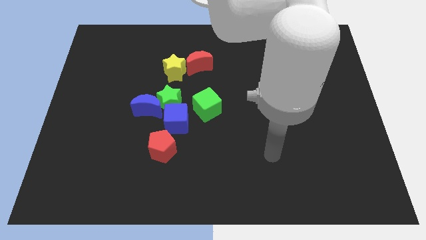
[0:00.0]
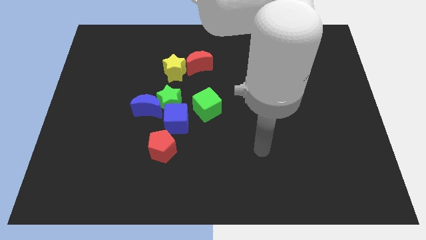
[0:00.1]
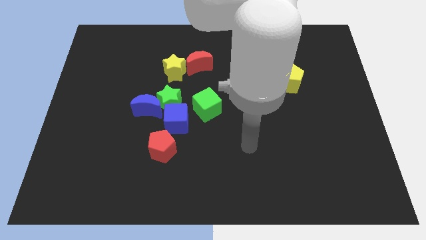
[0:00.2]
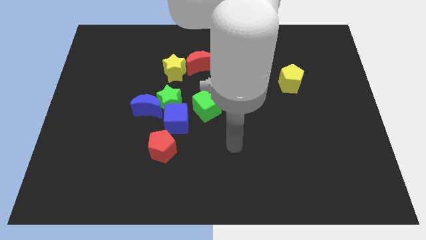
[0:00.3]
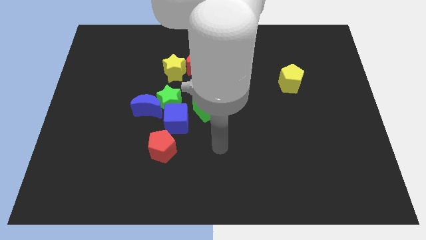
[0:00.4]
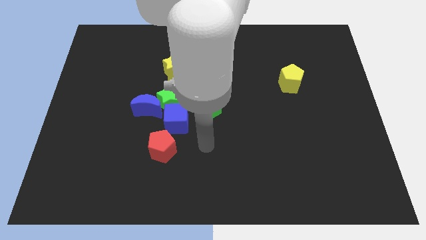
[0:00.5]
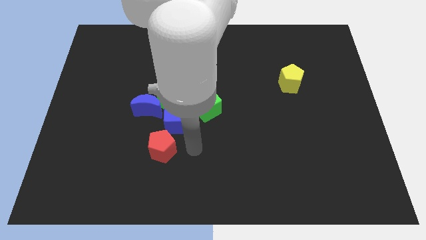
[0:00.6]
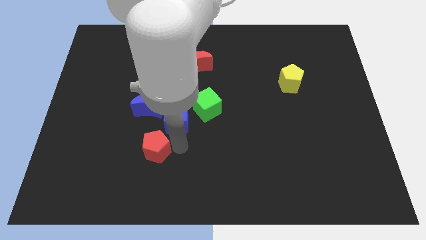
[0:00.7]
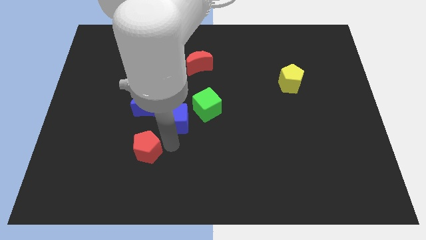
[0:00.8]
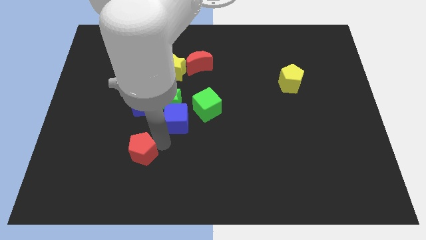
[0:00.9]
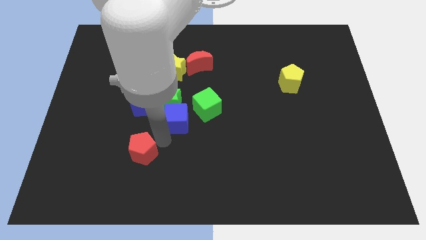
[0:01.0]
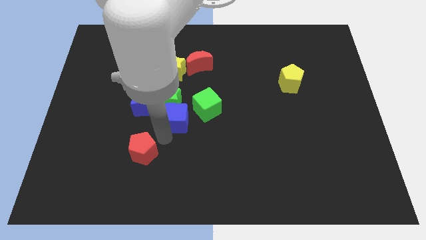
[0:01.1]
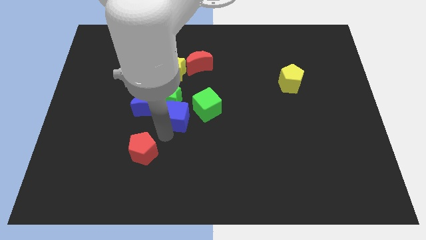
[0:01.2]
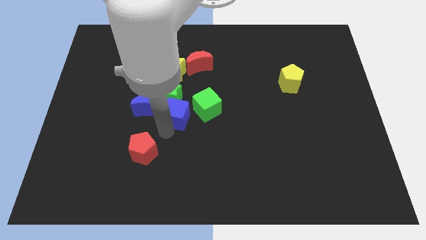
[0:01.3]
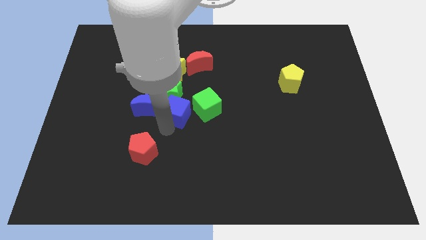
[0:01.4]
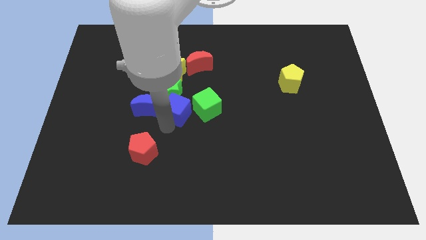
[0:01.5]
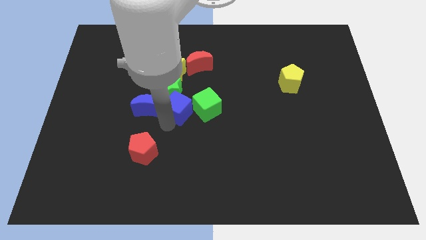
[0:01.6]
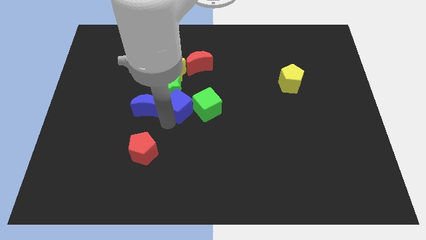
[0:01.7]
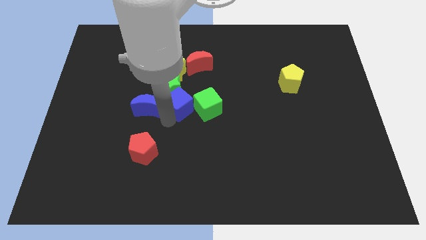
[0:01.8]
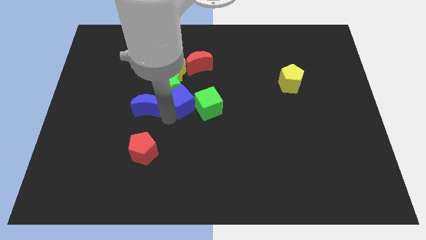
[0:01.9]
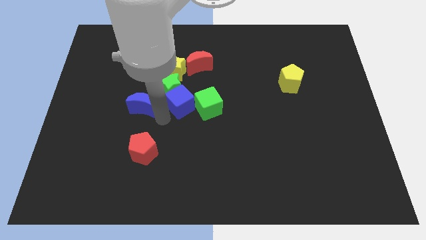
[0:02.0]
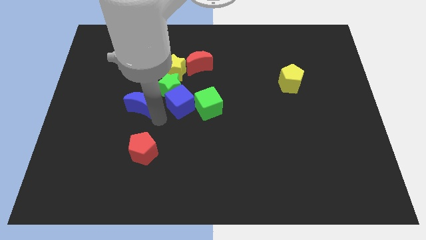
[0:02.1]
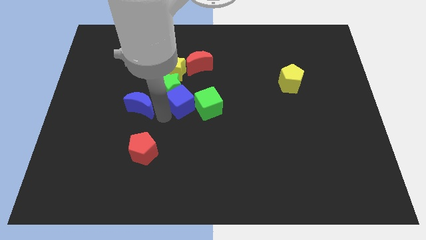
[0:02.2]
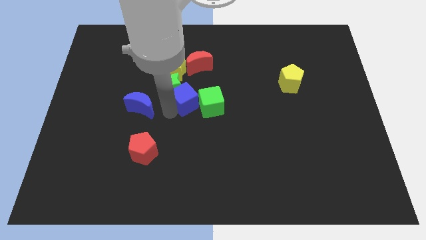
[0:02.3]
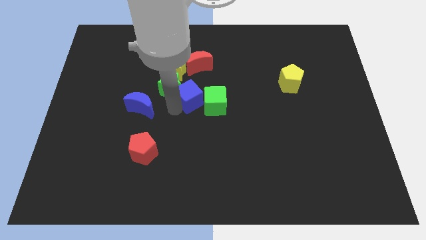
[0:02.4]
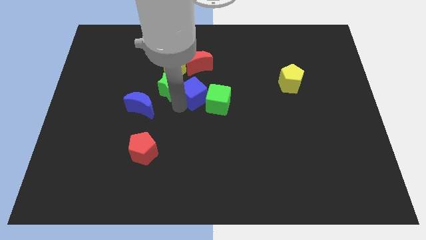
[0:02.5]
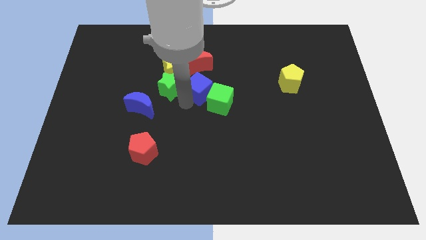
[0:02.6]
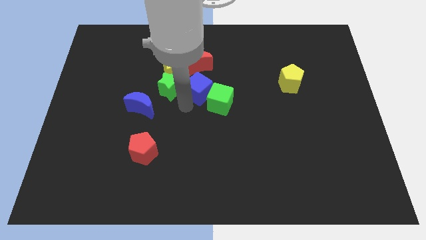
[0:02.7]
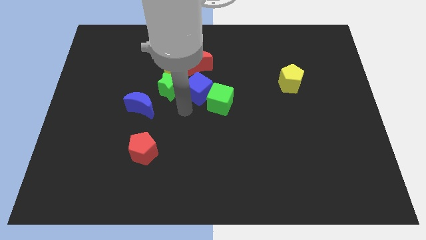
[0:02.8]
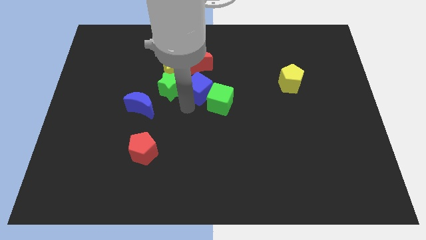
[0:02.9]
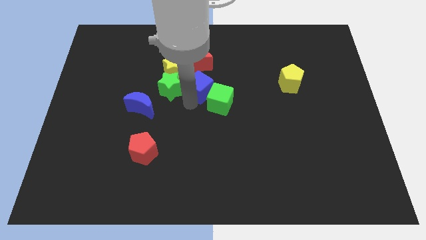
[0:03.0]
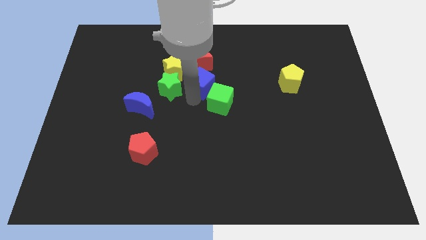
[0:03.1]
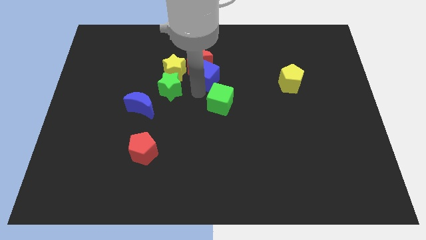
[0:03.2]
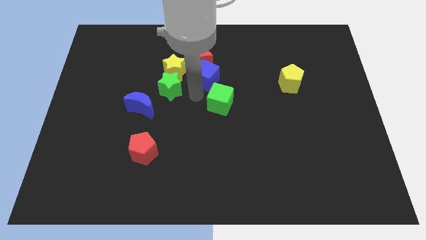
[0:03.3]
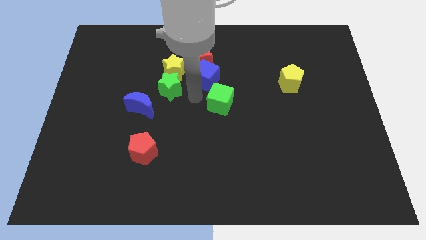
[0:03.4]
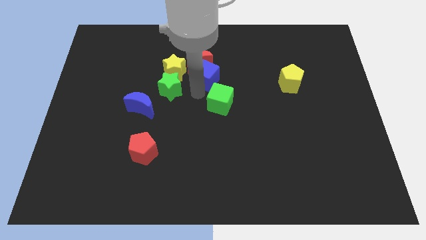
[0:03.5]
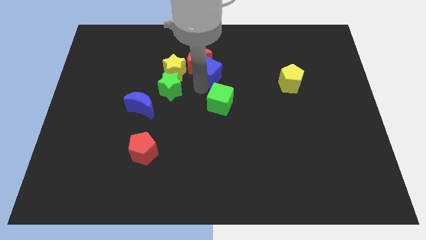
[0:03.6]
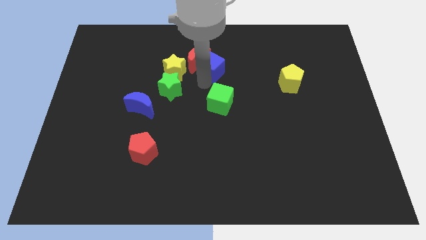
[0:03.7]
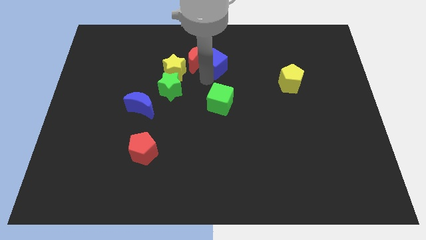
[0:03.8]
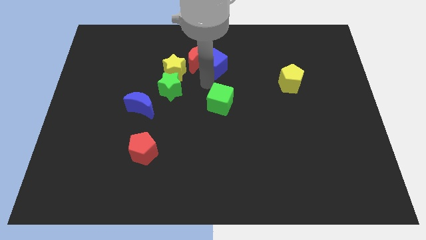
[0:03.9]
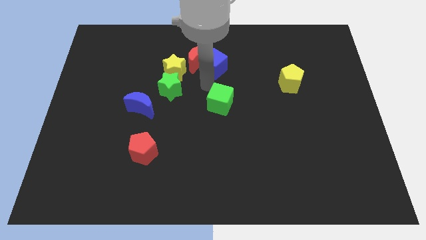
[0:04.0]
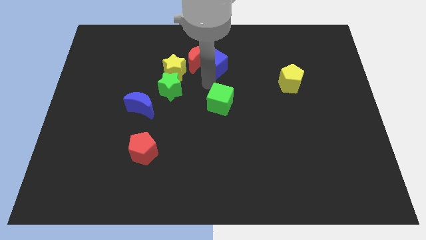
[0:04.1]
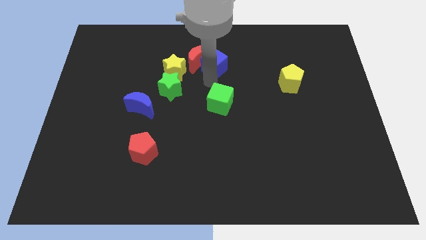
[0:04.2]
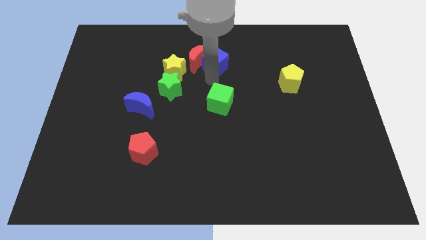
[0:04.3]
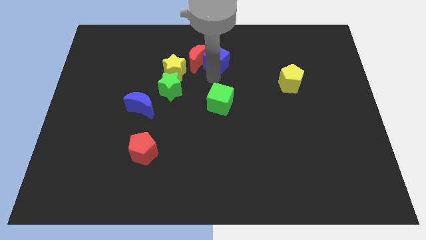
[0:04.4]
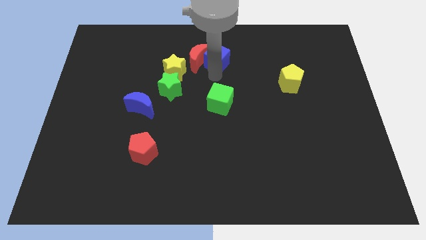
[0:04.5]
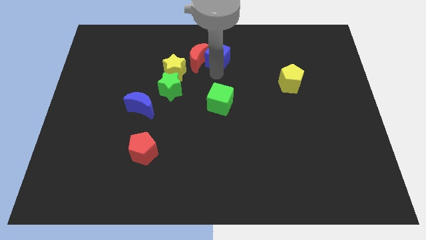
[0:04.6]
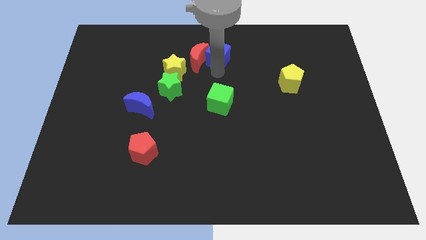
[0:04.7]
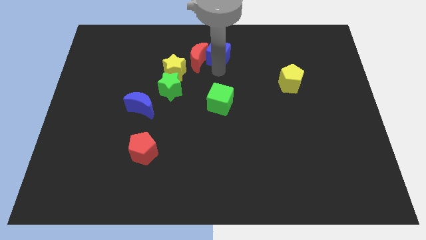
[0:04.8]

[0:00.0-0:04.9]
move the blue cube to the towards your base
